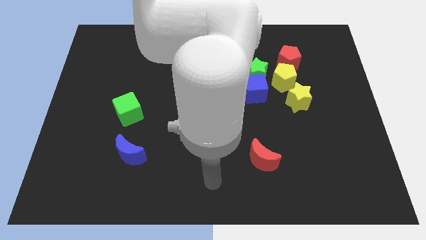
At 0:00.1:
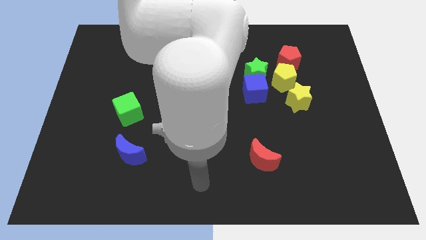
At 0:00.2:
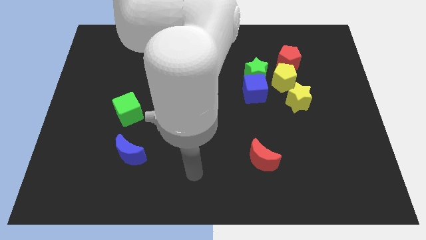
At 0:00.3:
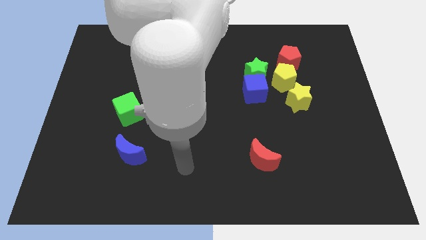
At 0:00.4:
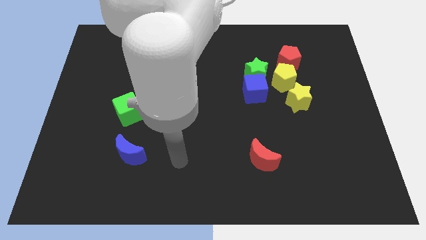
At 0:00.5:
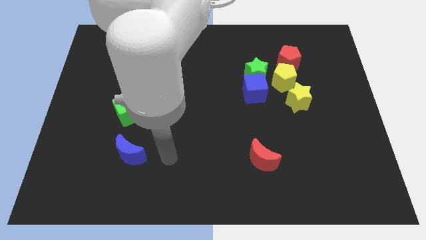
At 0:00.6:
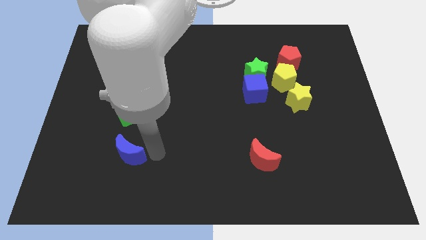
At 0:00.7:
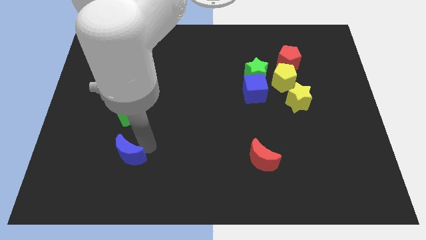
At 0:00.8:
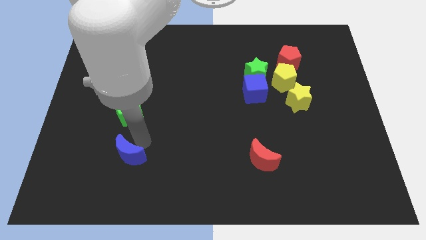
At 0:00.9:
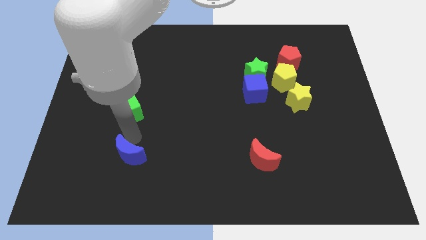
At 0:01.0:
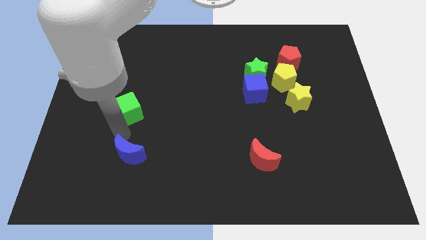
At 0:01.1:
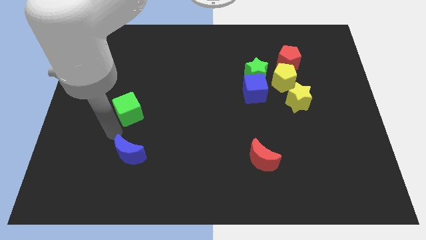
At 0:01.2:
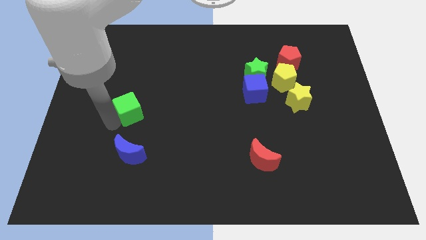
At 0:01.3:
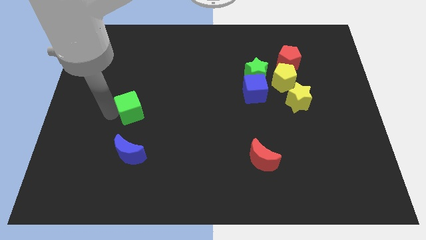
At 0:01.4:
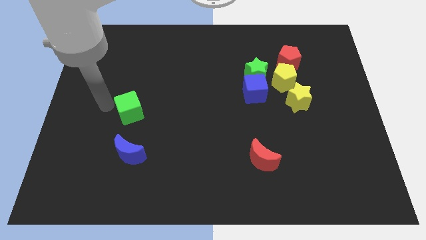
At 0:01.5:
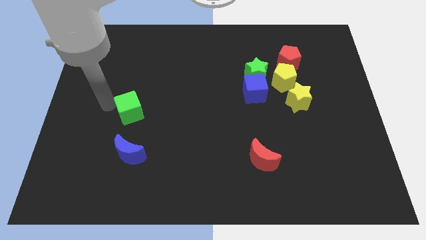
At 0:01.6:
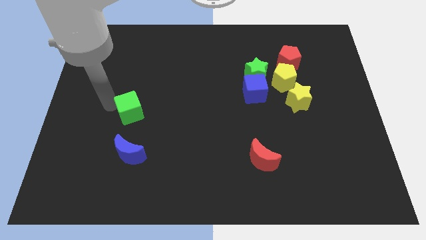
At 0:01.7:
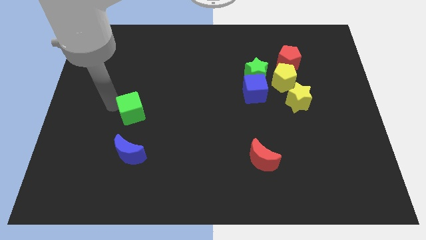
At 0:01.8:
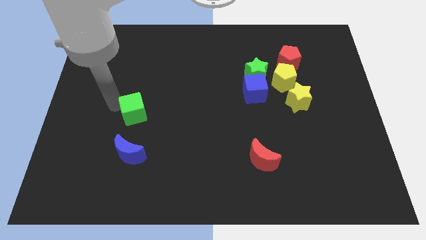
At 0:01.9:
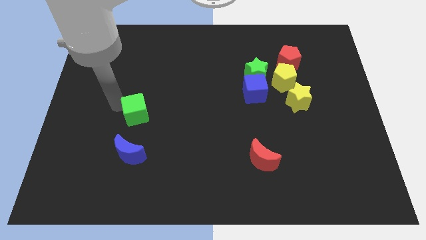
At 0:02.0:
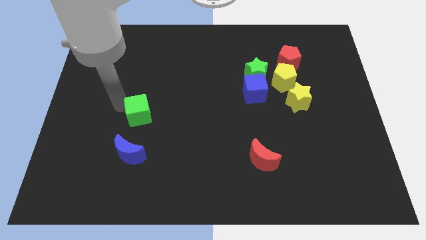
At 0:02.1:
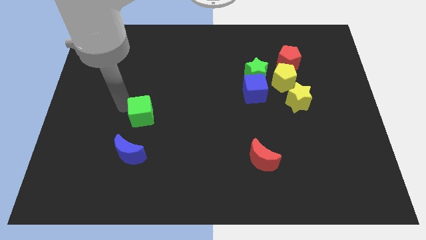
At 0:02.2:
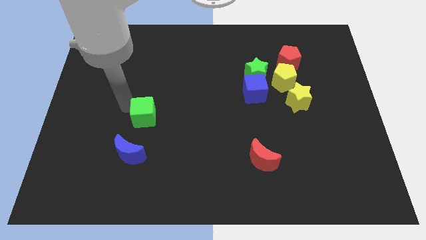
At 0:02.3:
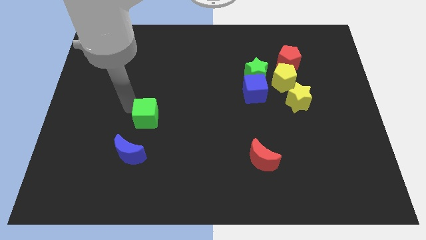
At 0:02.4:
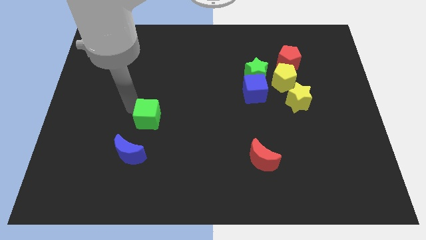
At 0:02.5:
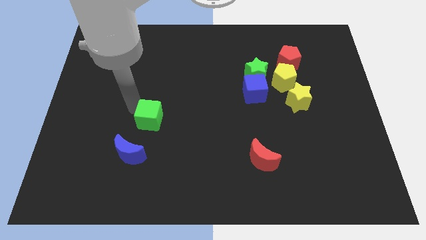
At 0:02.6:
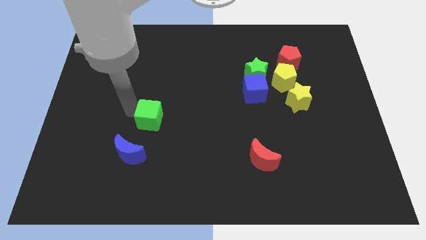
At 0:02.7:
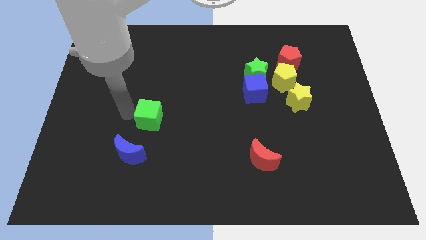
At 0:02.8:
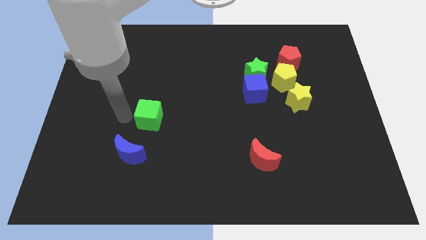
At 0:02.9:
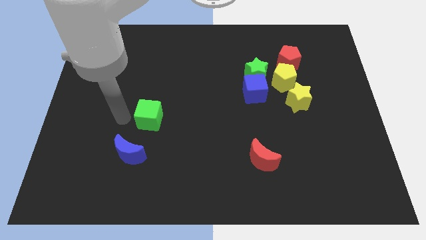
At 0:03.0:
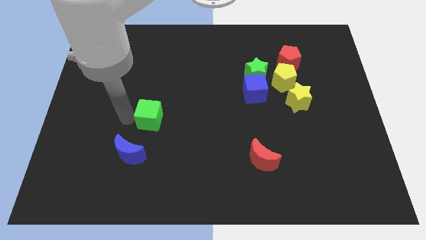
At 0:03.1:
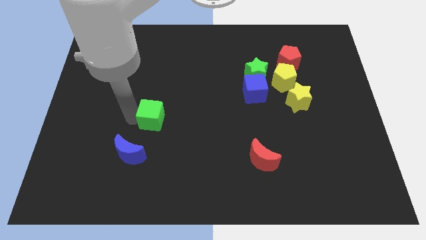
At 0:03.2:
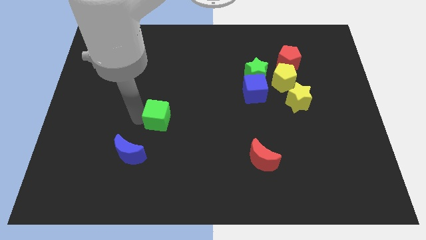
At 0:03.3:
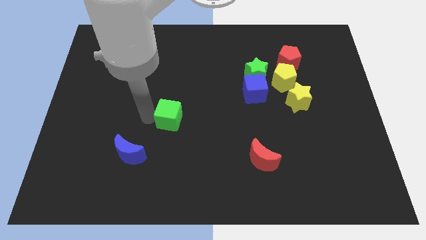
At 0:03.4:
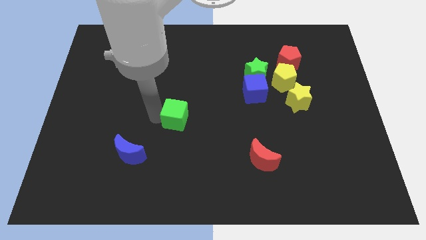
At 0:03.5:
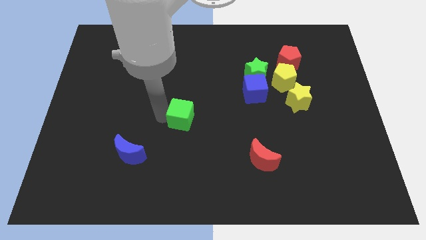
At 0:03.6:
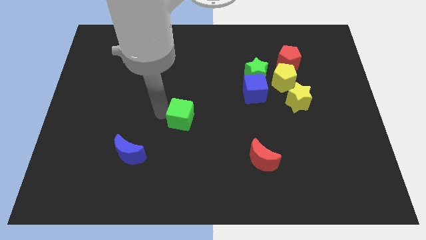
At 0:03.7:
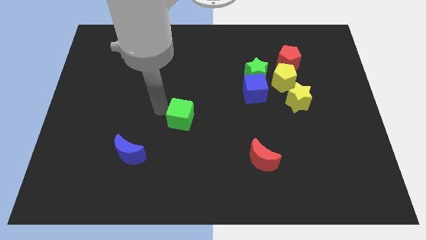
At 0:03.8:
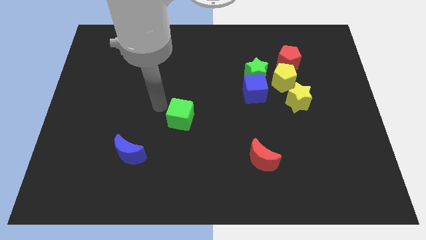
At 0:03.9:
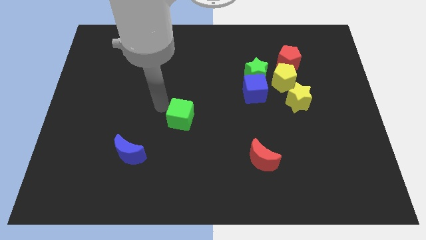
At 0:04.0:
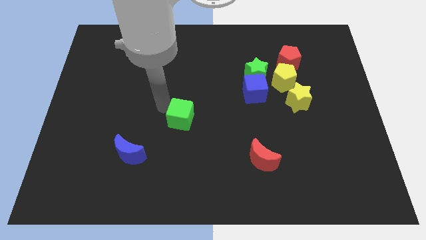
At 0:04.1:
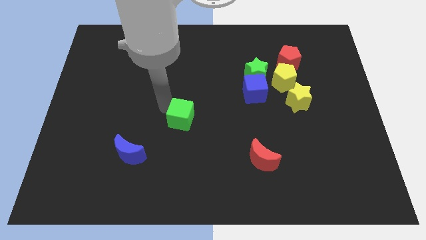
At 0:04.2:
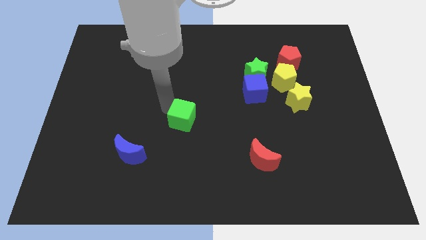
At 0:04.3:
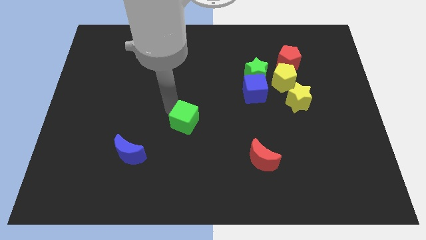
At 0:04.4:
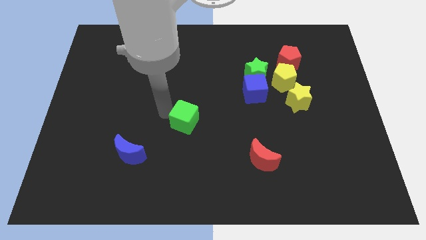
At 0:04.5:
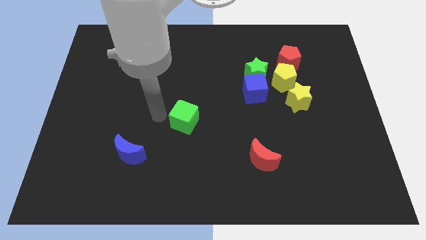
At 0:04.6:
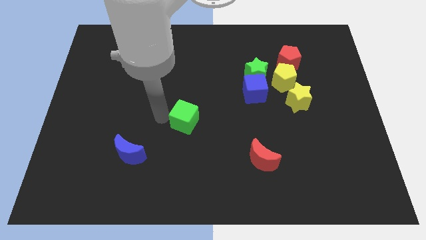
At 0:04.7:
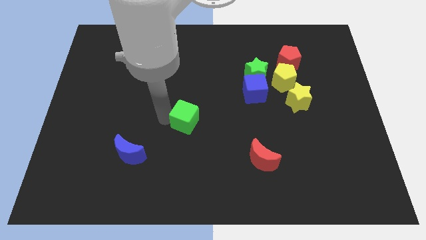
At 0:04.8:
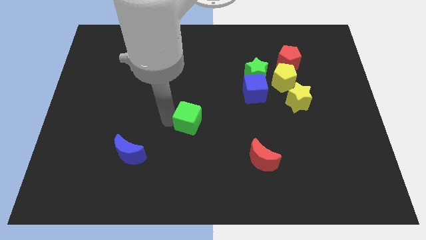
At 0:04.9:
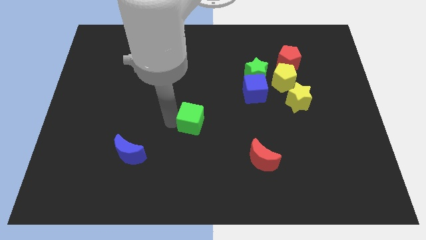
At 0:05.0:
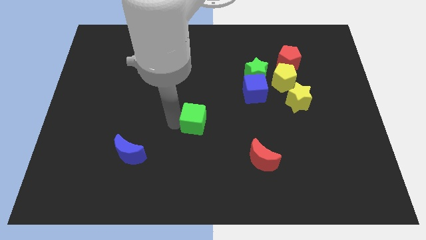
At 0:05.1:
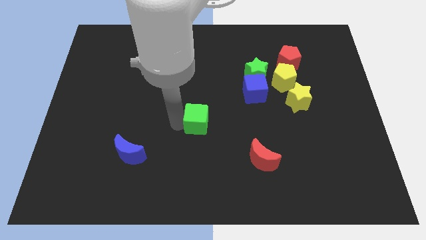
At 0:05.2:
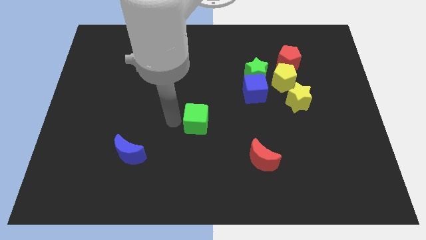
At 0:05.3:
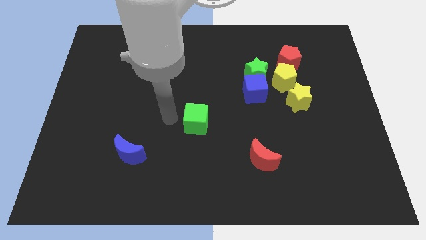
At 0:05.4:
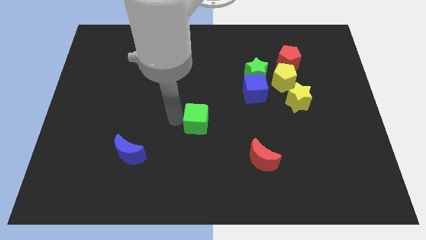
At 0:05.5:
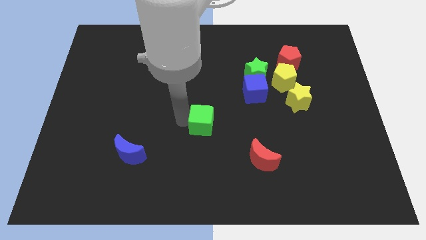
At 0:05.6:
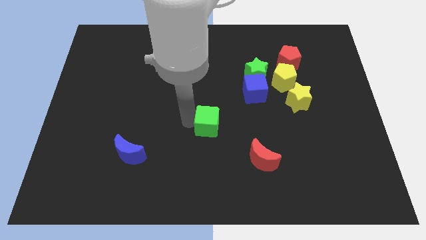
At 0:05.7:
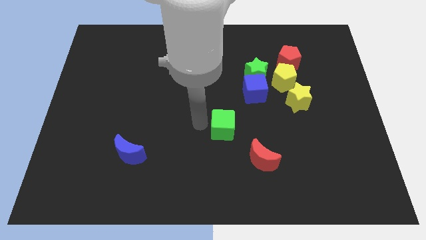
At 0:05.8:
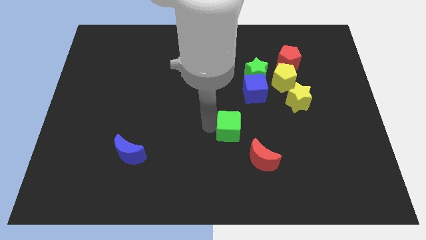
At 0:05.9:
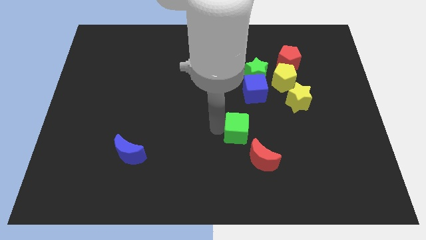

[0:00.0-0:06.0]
push the green cube below the blue cube

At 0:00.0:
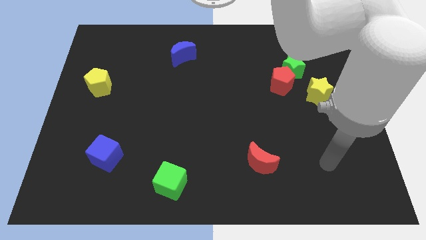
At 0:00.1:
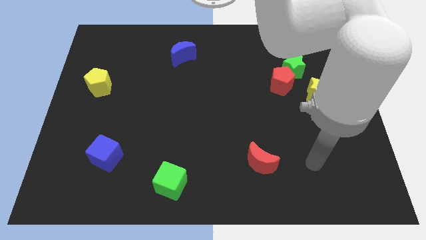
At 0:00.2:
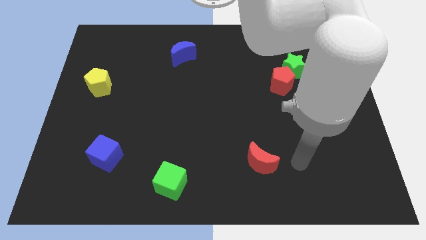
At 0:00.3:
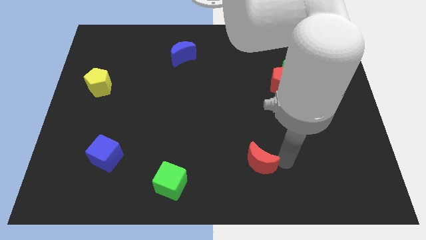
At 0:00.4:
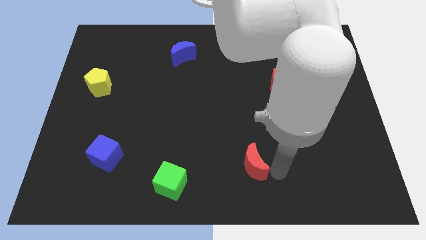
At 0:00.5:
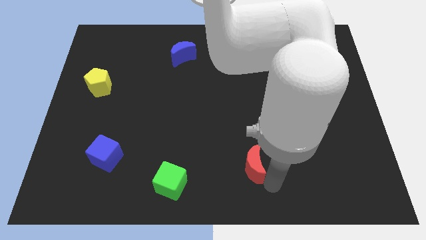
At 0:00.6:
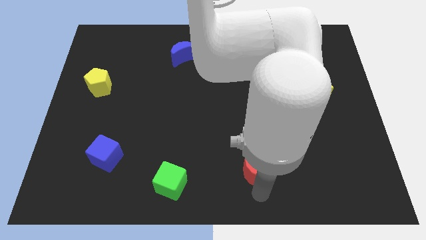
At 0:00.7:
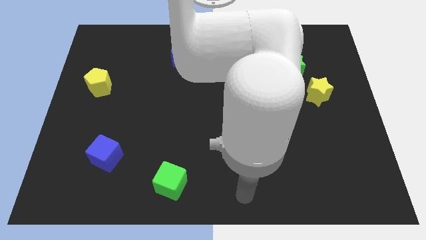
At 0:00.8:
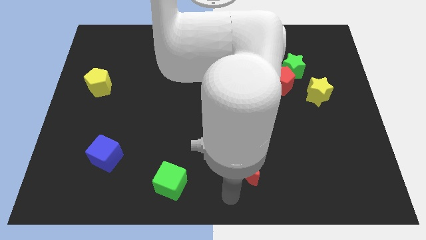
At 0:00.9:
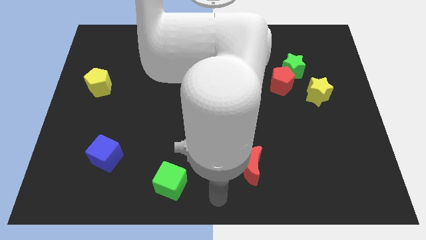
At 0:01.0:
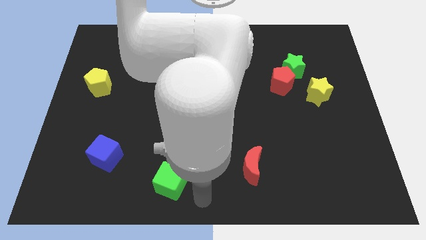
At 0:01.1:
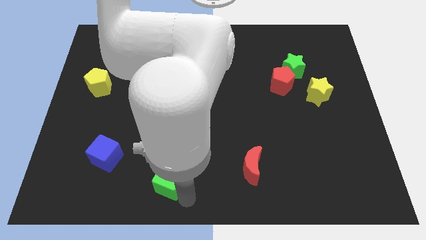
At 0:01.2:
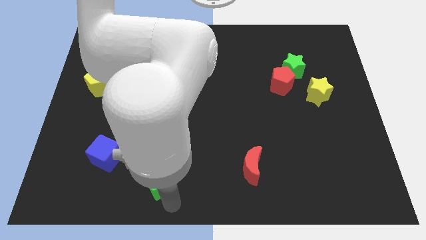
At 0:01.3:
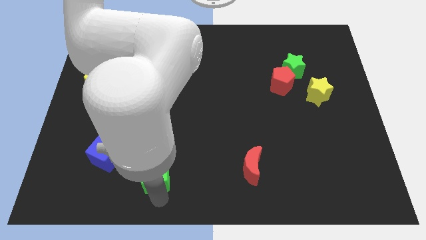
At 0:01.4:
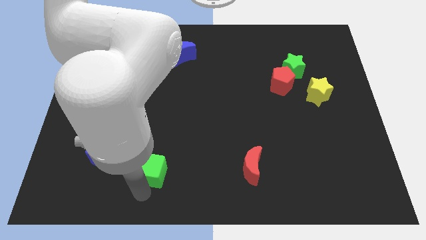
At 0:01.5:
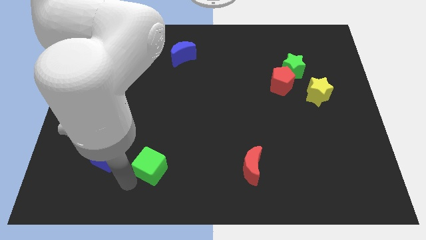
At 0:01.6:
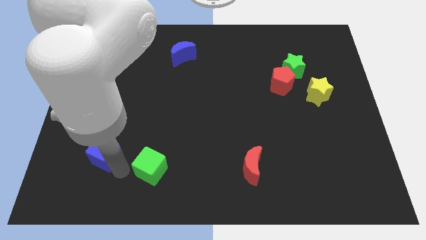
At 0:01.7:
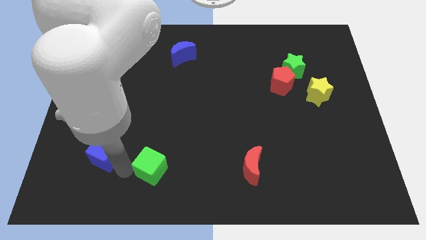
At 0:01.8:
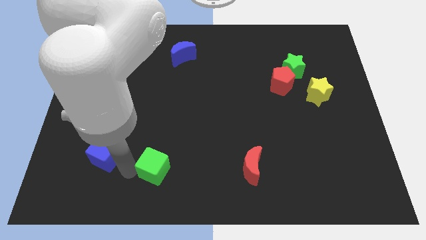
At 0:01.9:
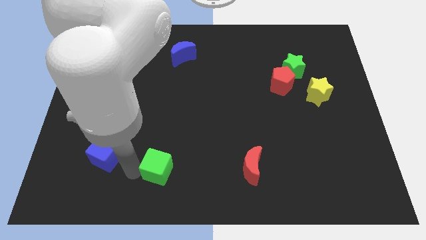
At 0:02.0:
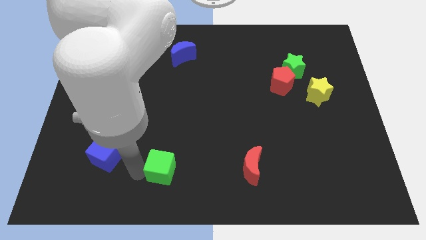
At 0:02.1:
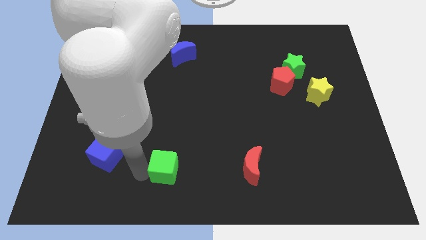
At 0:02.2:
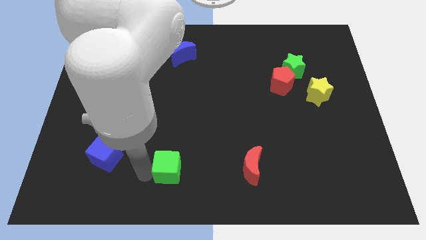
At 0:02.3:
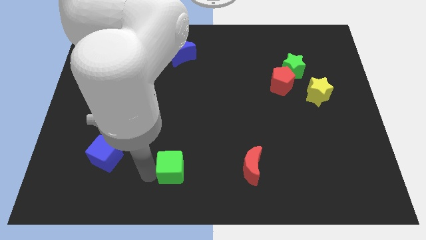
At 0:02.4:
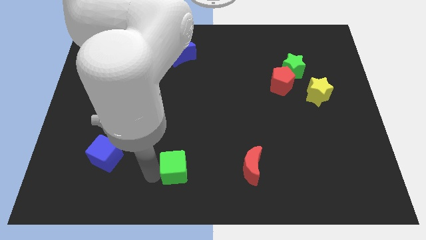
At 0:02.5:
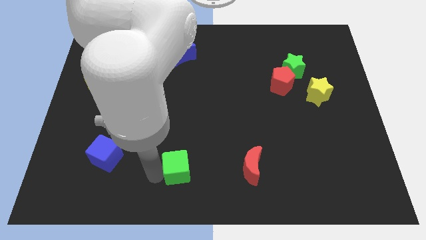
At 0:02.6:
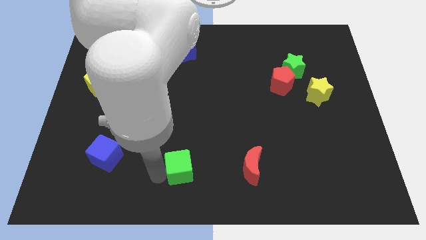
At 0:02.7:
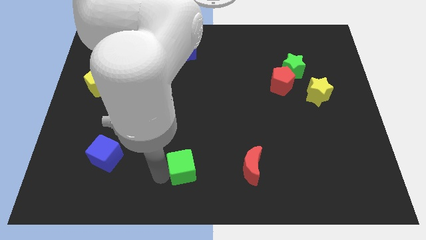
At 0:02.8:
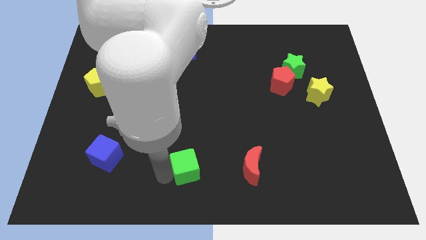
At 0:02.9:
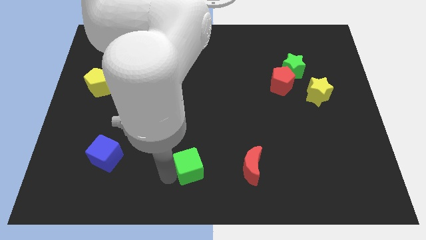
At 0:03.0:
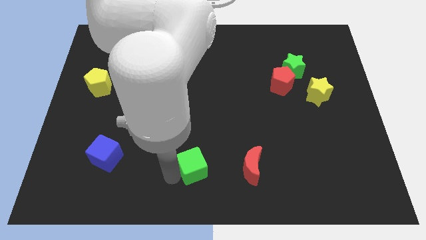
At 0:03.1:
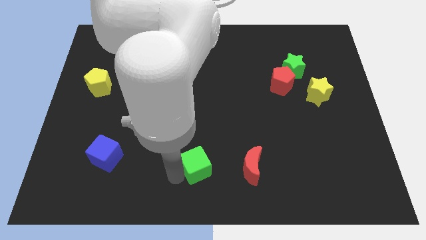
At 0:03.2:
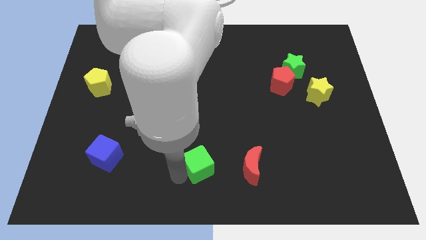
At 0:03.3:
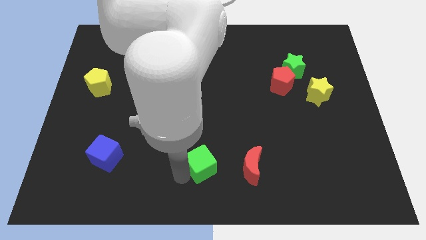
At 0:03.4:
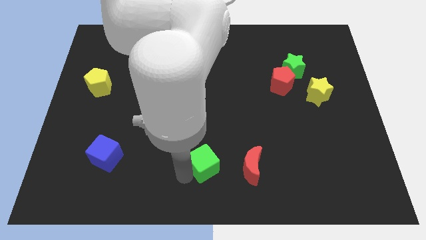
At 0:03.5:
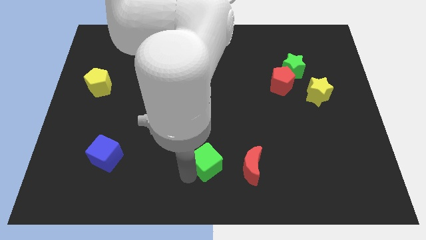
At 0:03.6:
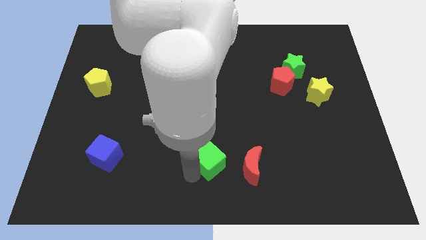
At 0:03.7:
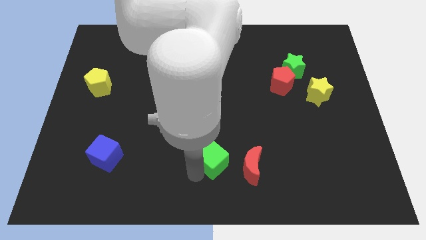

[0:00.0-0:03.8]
slide the green cube to the top left of the red moon
